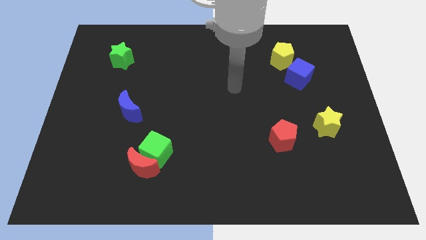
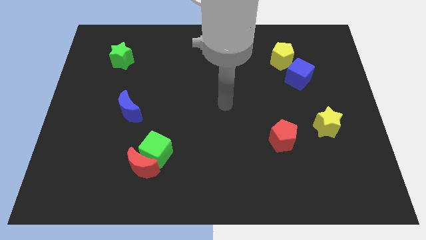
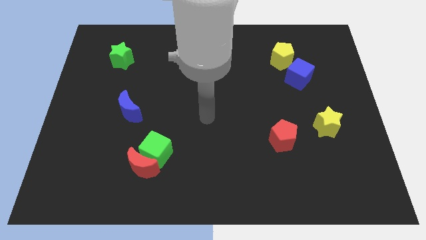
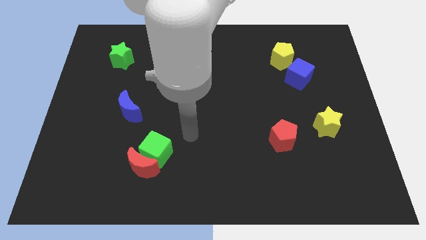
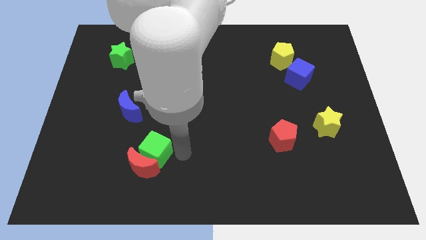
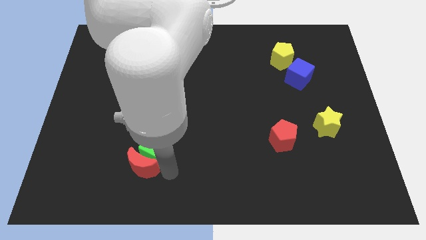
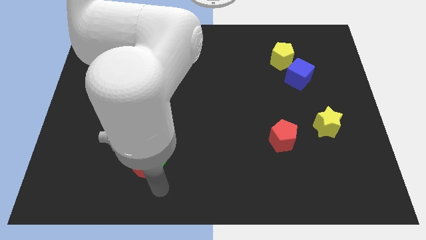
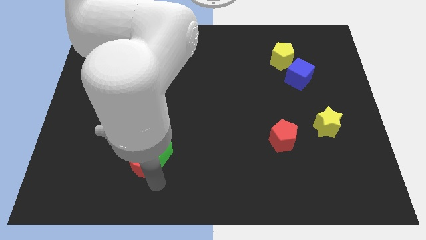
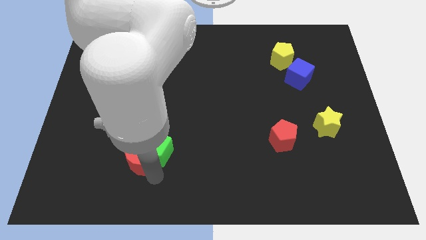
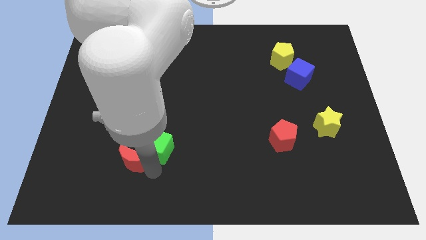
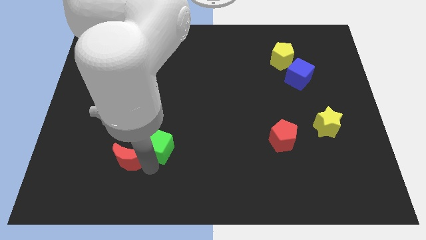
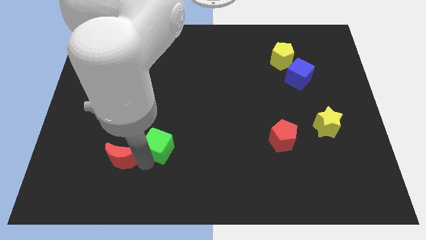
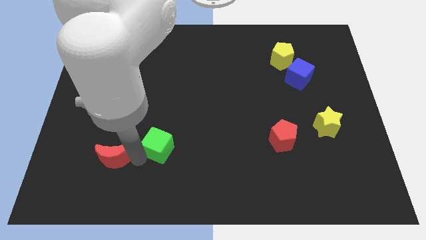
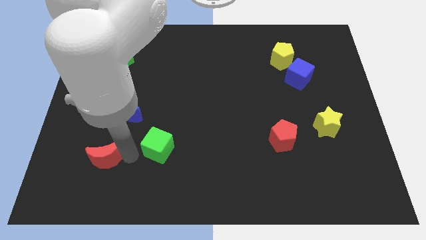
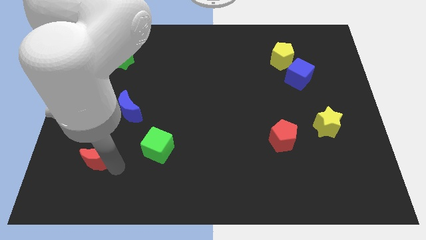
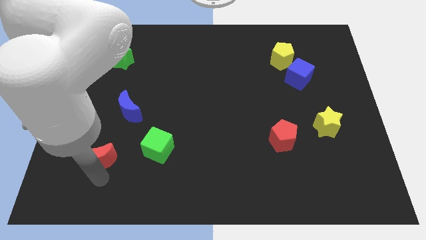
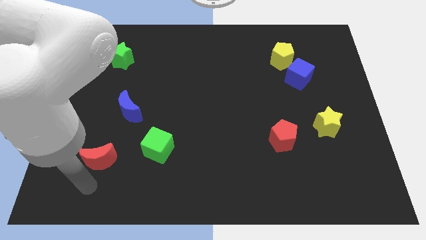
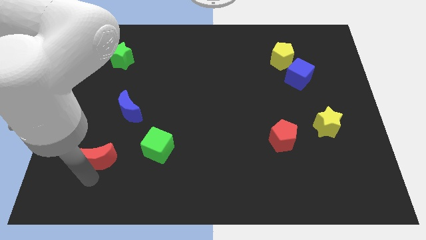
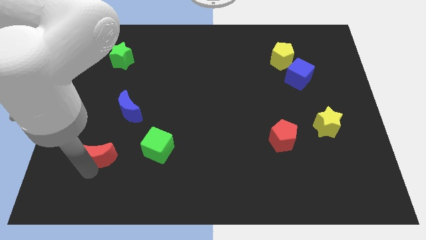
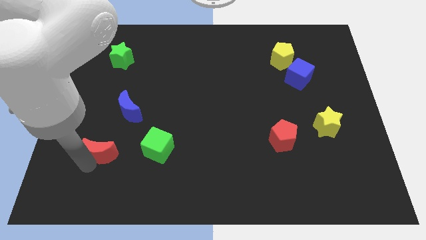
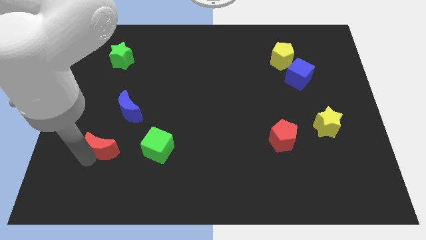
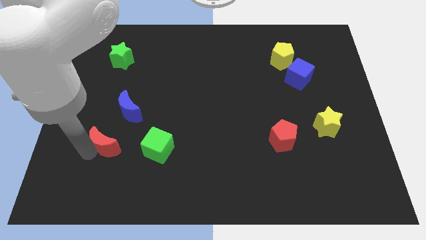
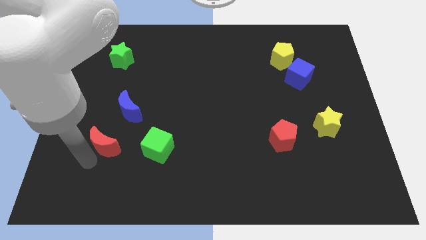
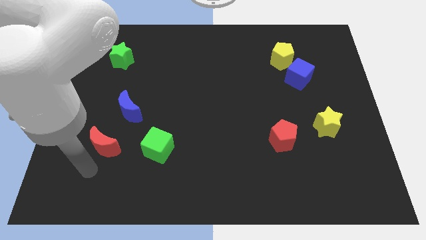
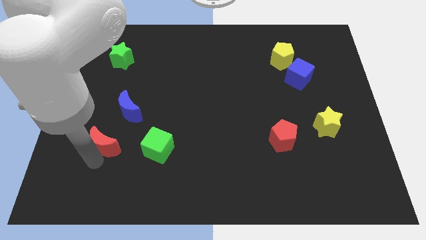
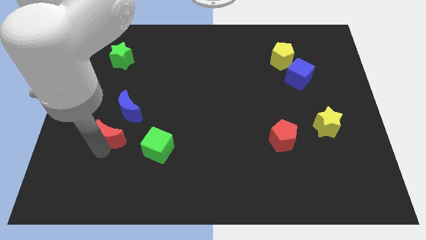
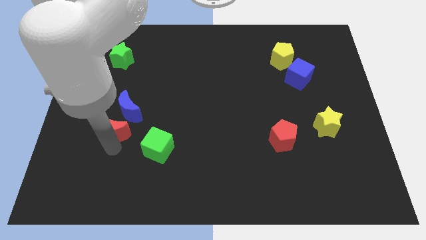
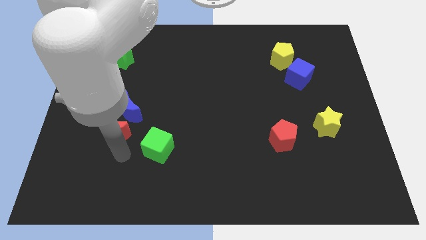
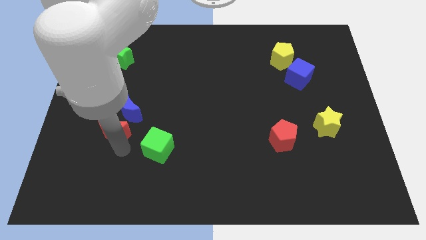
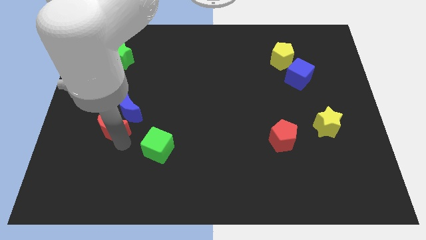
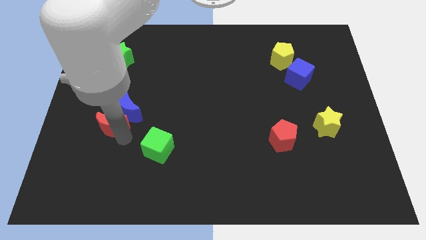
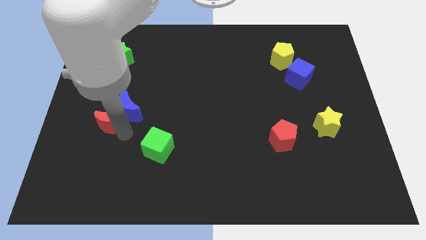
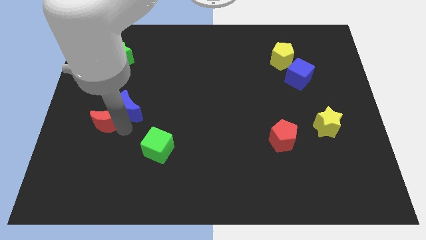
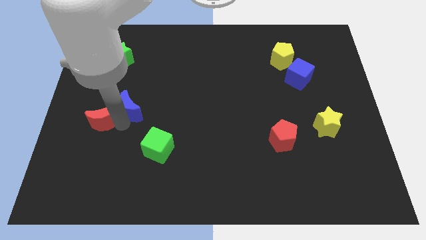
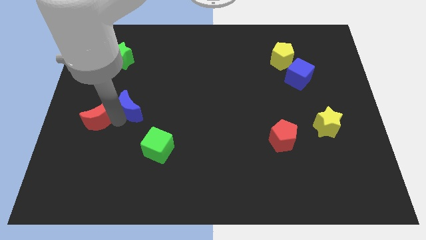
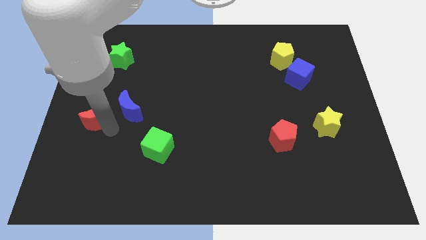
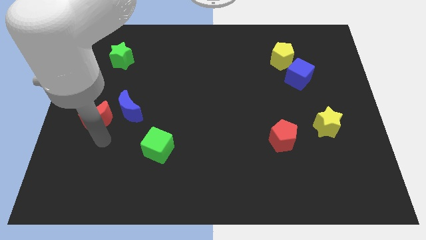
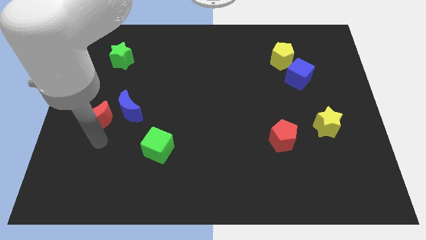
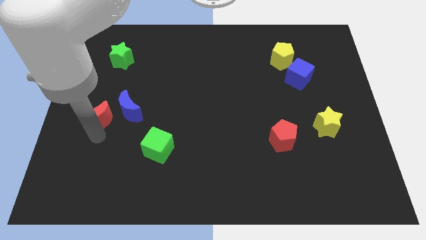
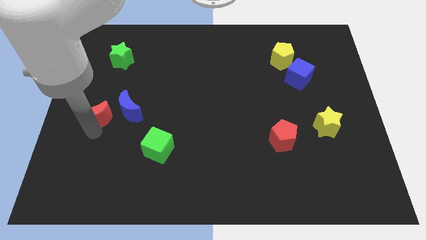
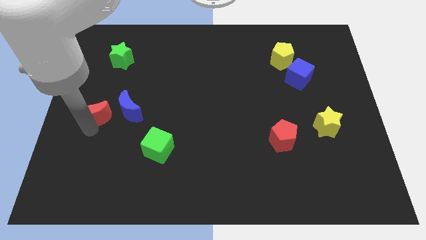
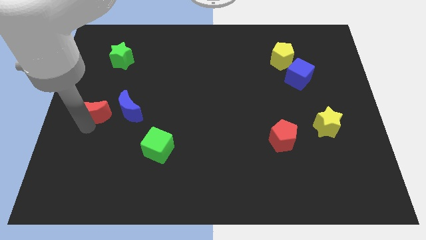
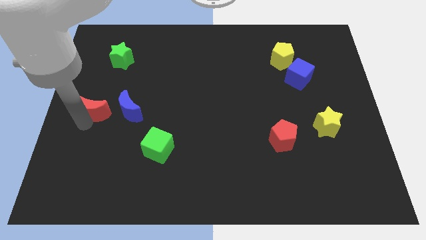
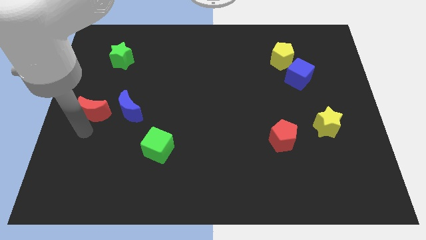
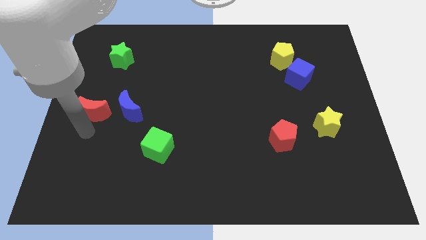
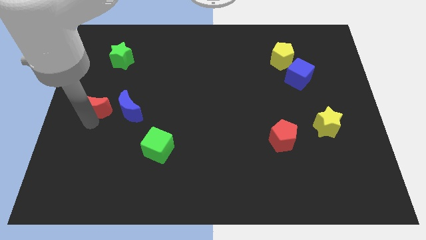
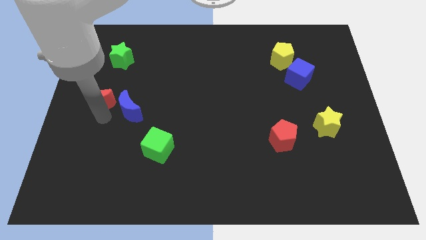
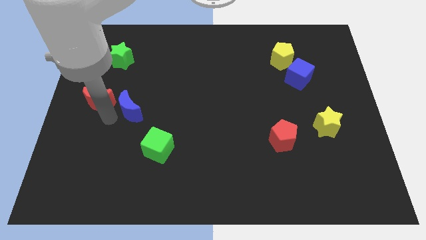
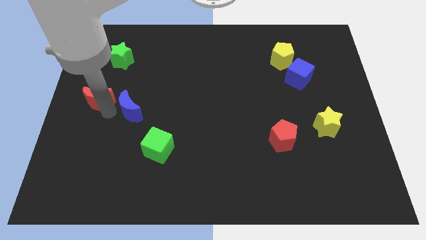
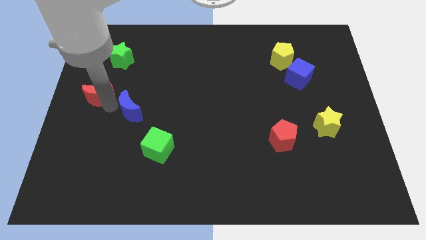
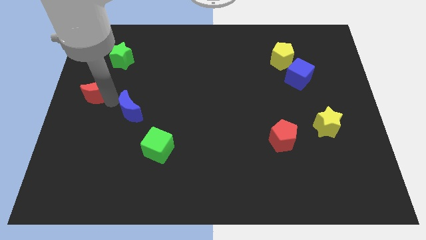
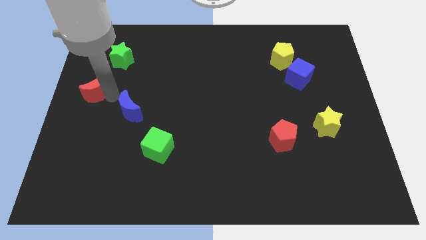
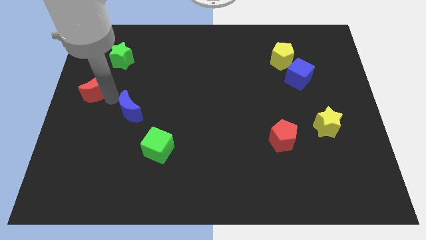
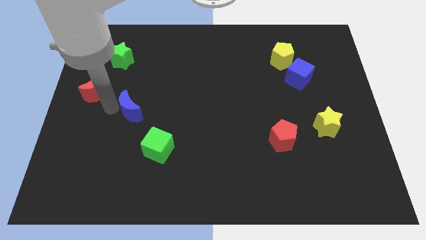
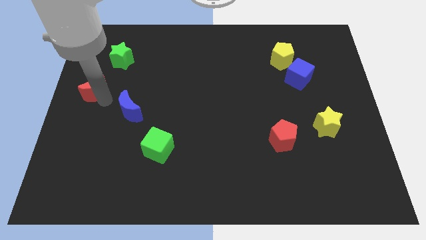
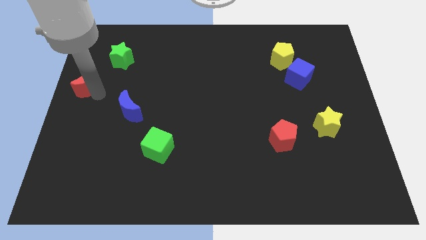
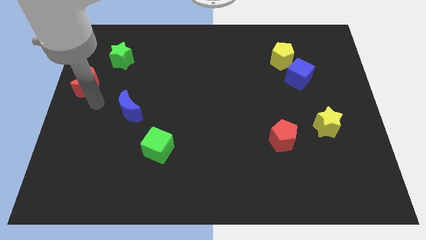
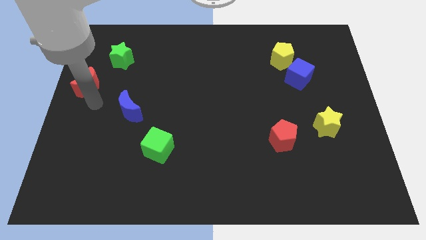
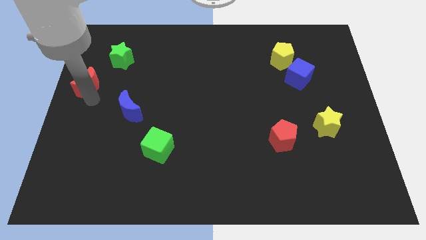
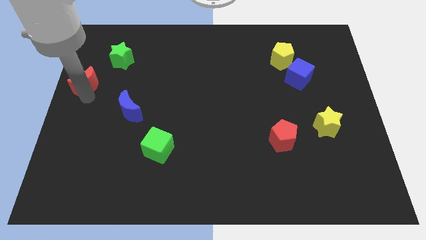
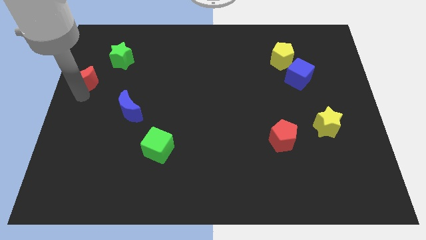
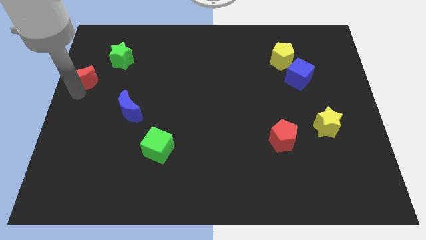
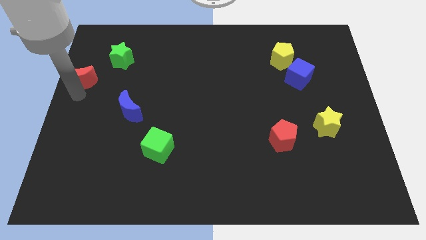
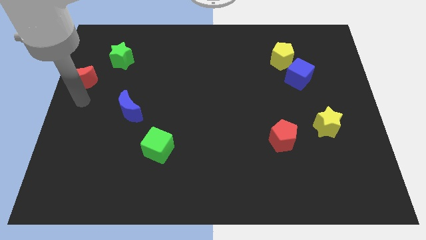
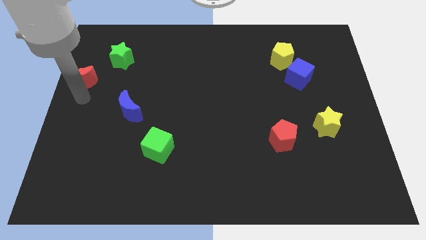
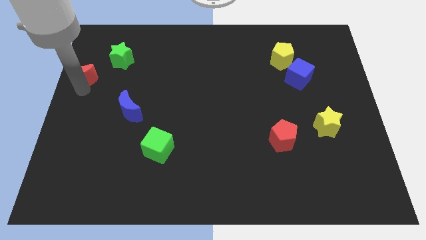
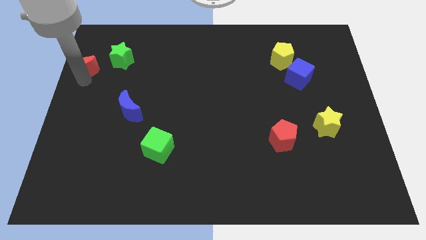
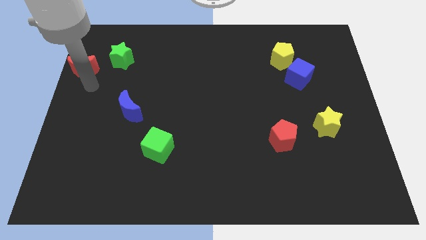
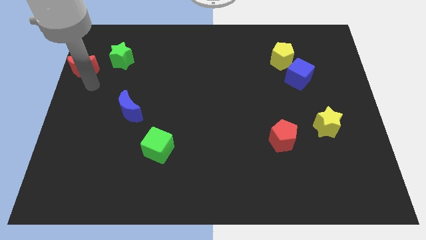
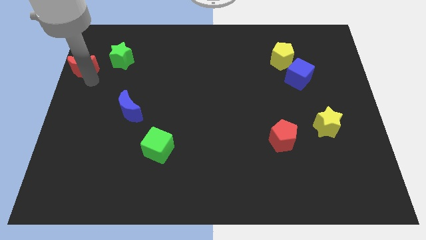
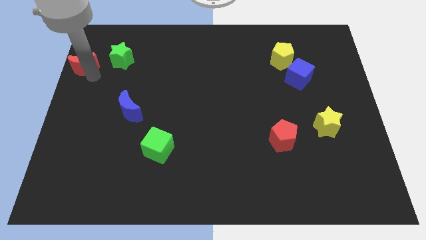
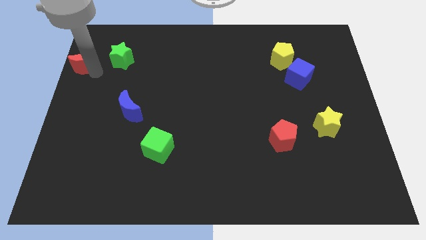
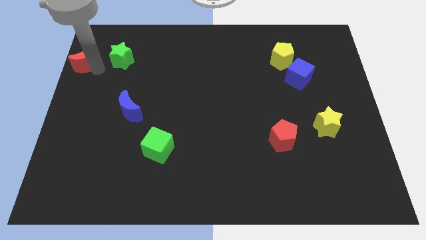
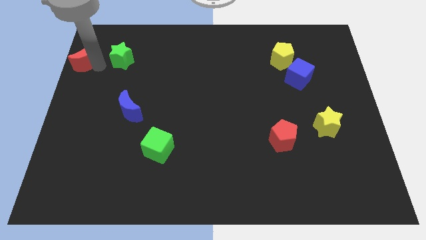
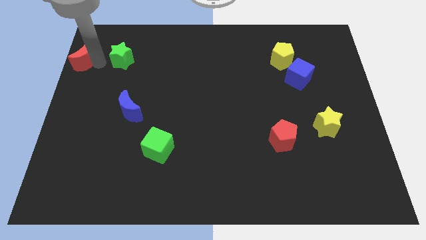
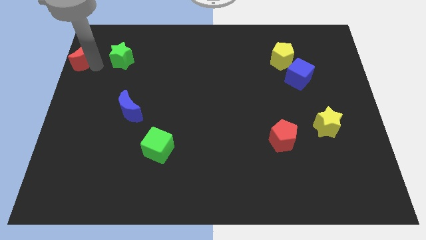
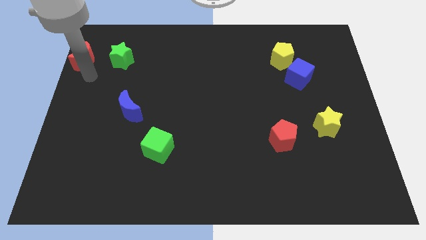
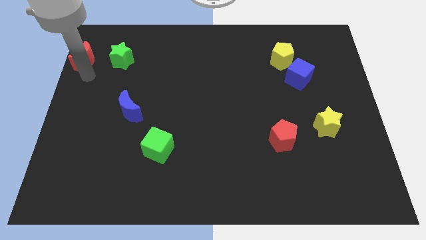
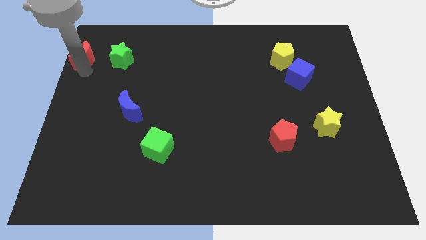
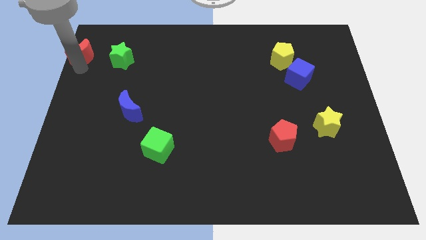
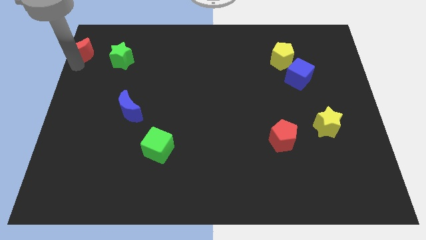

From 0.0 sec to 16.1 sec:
move the red moon to the top left
